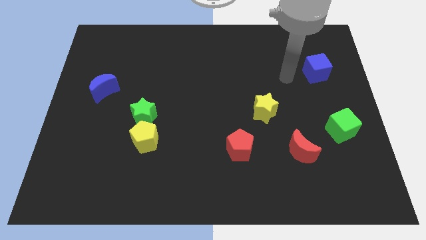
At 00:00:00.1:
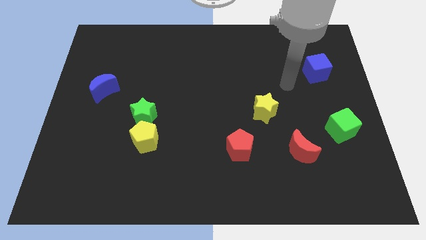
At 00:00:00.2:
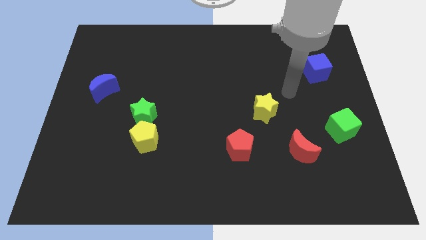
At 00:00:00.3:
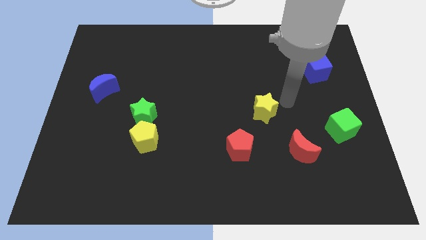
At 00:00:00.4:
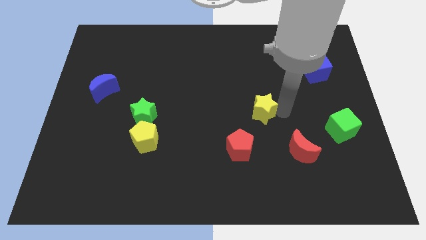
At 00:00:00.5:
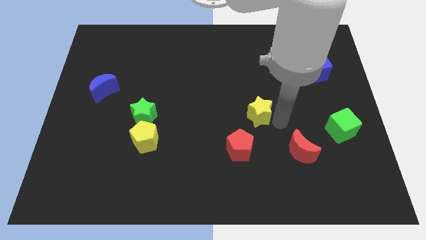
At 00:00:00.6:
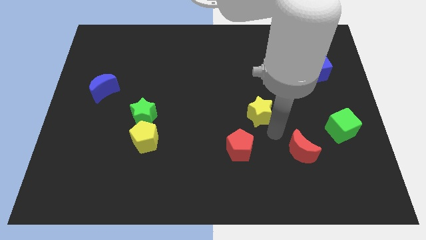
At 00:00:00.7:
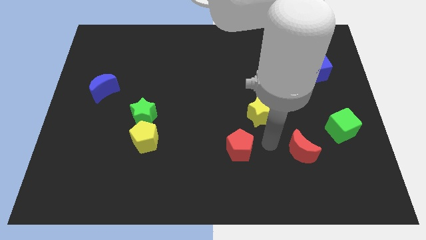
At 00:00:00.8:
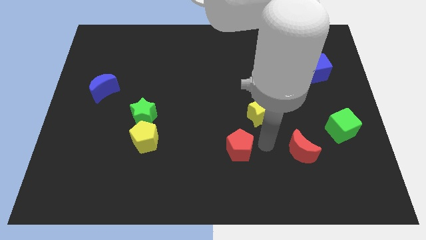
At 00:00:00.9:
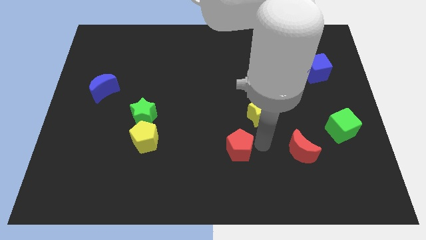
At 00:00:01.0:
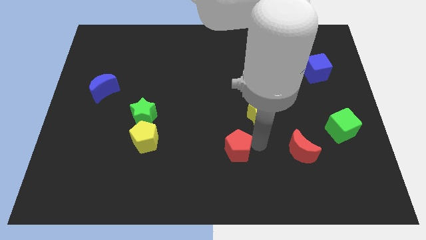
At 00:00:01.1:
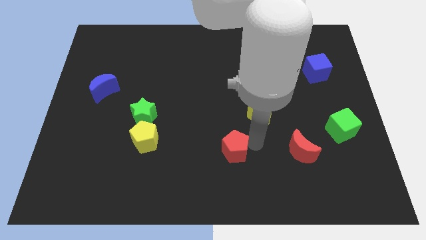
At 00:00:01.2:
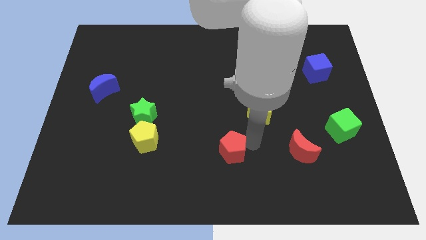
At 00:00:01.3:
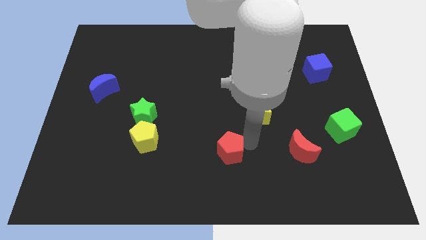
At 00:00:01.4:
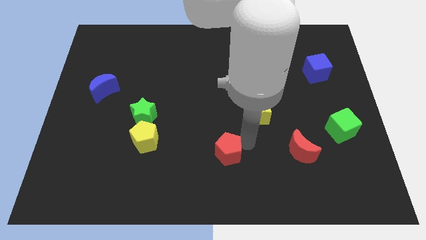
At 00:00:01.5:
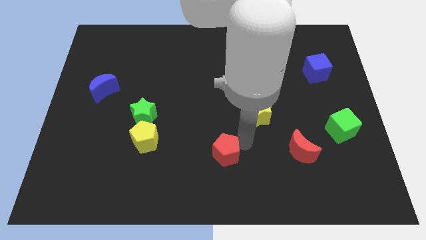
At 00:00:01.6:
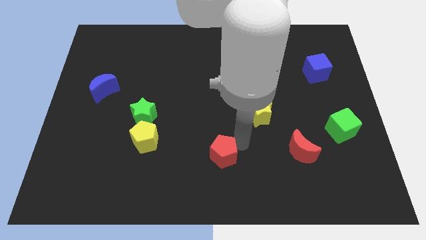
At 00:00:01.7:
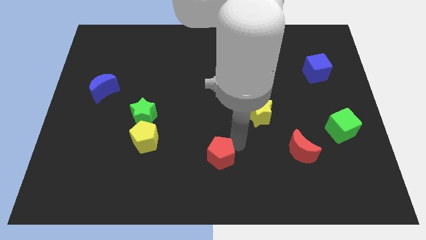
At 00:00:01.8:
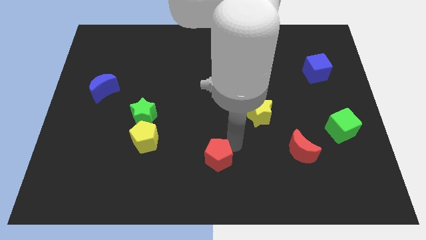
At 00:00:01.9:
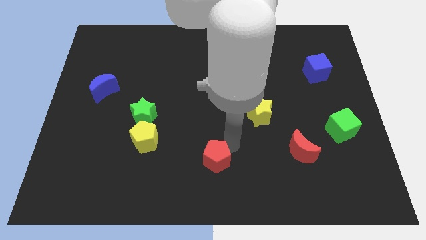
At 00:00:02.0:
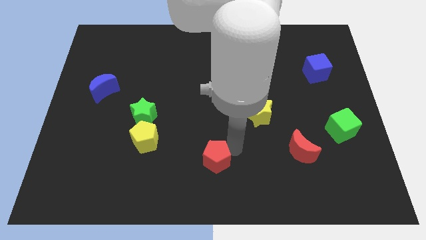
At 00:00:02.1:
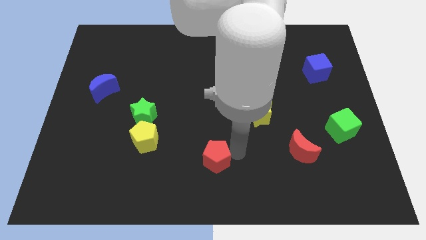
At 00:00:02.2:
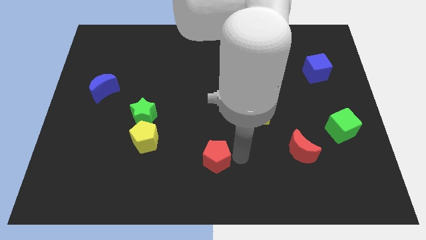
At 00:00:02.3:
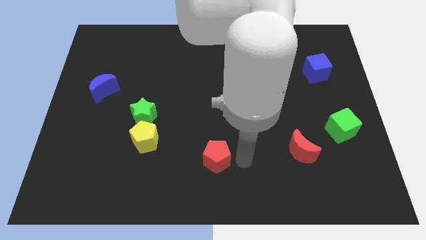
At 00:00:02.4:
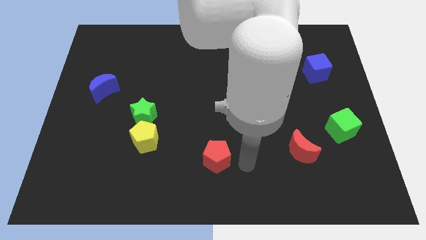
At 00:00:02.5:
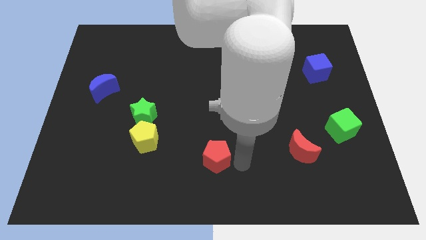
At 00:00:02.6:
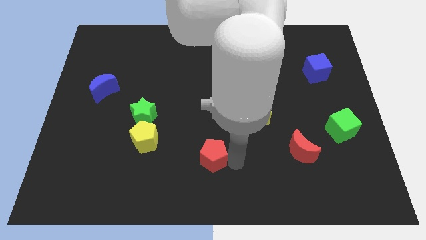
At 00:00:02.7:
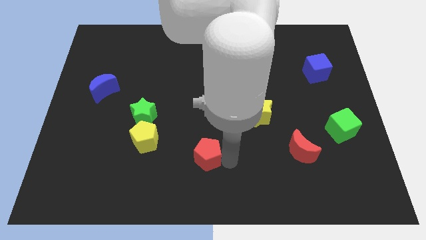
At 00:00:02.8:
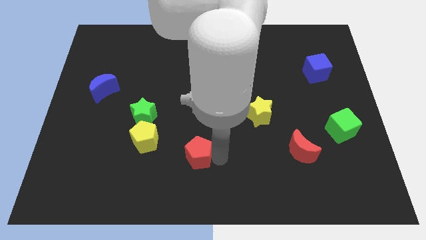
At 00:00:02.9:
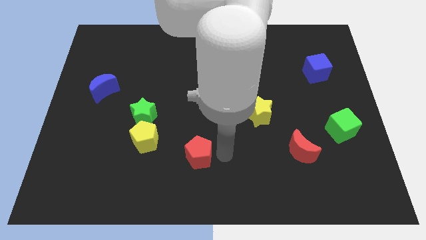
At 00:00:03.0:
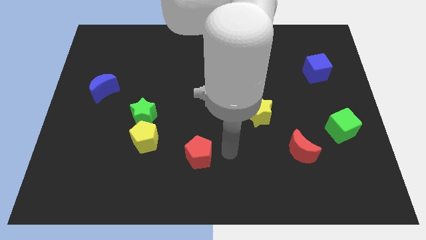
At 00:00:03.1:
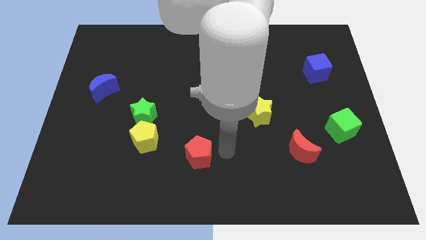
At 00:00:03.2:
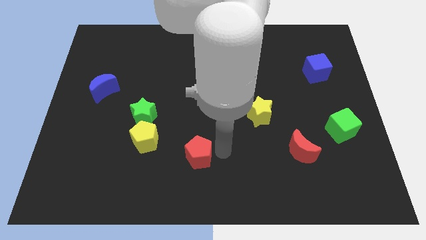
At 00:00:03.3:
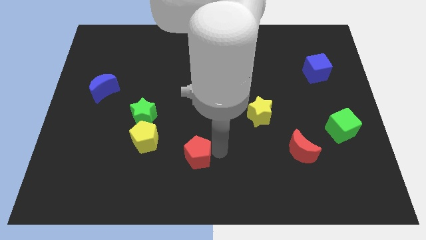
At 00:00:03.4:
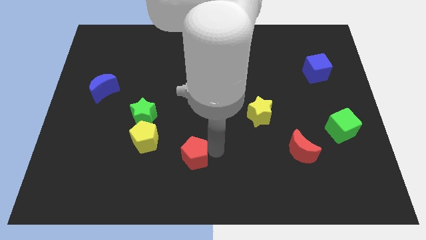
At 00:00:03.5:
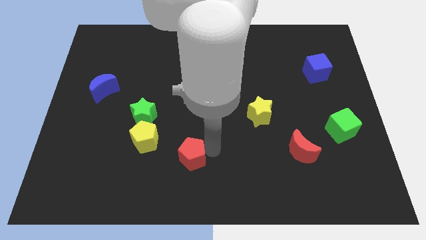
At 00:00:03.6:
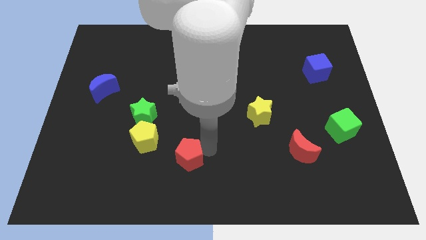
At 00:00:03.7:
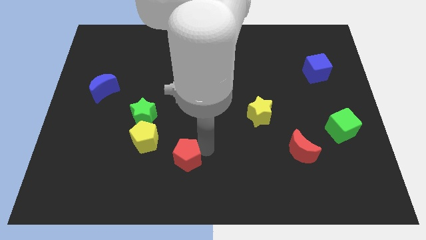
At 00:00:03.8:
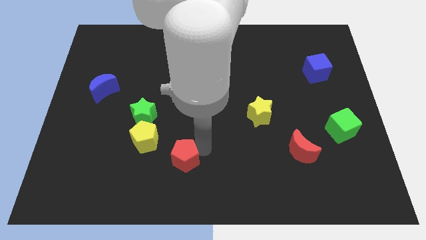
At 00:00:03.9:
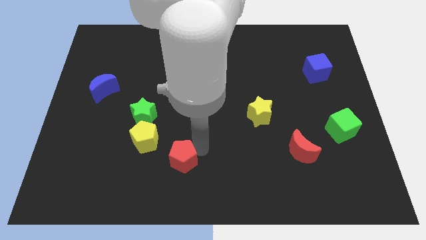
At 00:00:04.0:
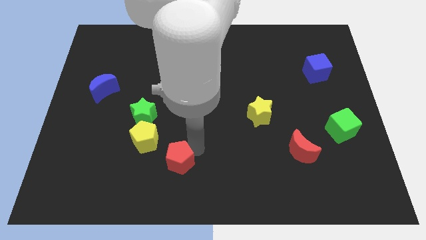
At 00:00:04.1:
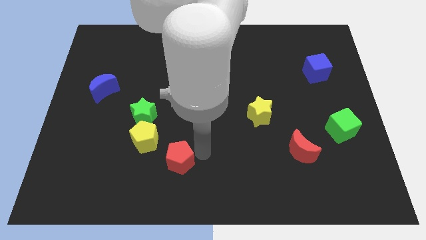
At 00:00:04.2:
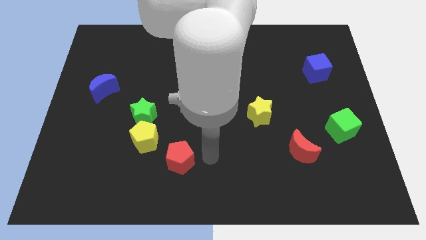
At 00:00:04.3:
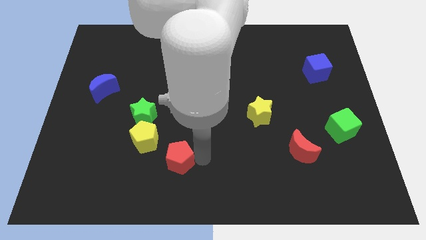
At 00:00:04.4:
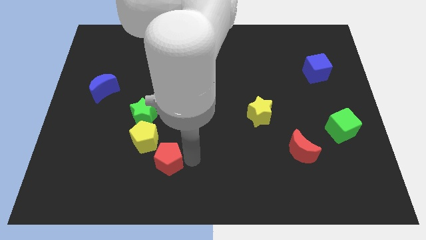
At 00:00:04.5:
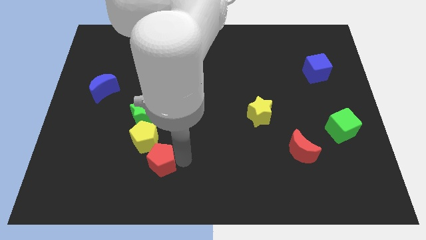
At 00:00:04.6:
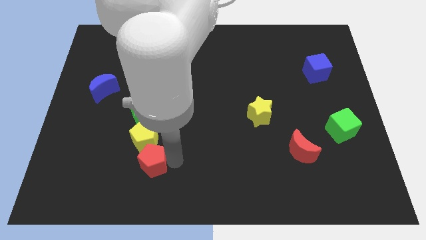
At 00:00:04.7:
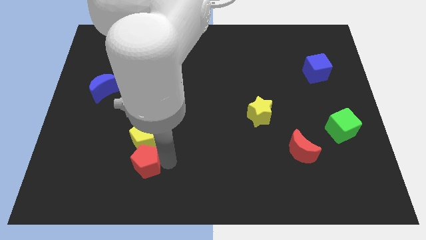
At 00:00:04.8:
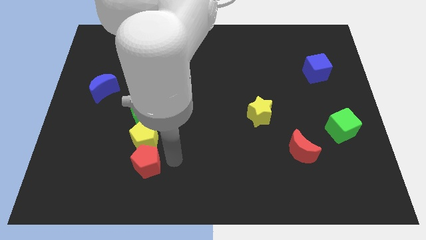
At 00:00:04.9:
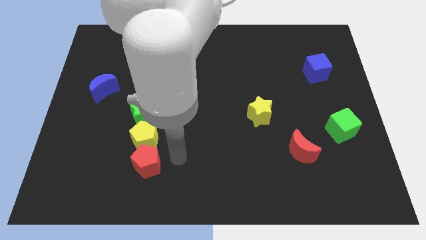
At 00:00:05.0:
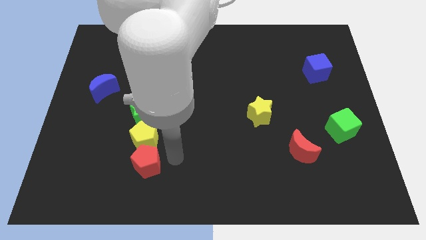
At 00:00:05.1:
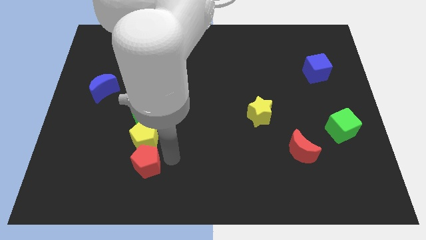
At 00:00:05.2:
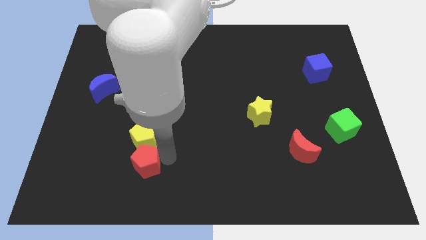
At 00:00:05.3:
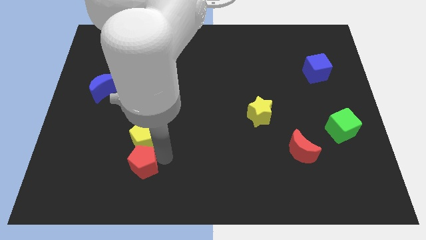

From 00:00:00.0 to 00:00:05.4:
push the red pentagon to the left

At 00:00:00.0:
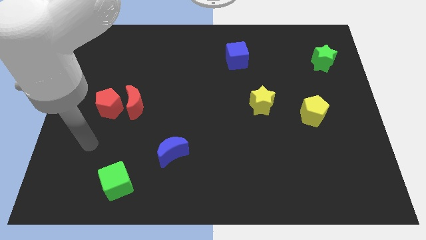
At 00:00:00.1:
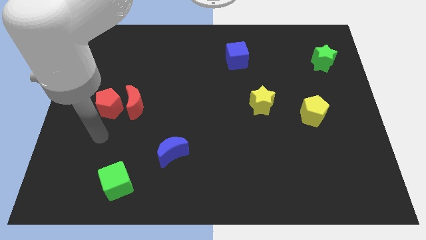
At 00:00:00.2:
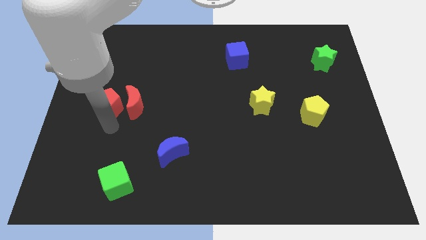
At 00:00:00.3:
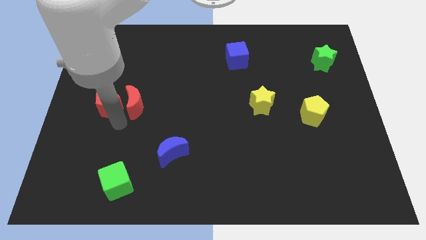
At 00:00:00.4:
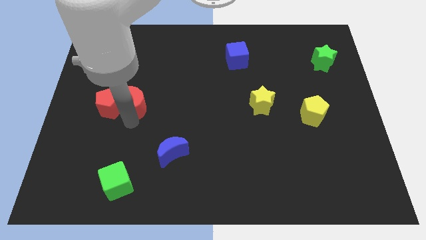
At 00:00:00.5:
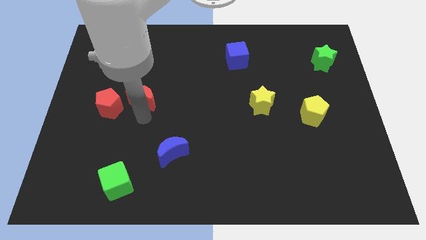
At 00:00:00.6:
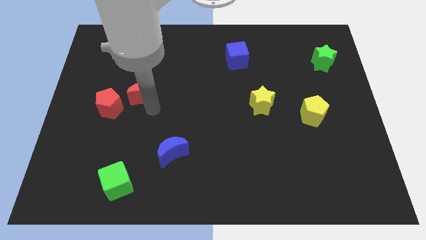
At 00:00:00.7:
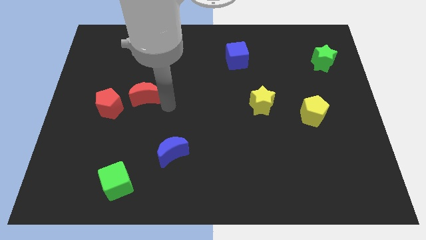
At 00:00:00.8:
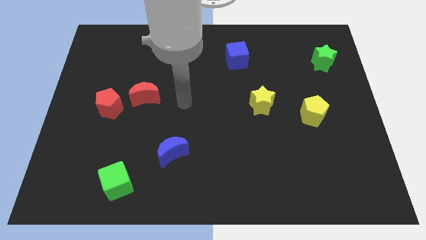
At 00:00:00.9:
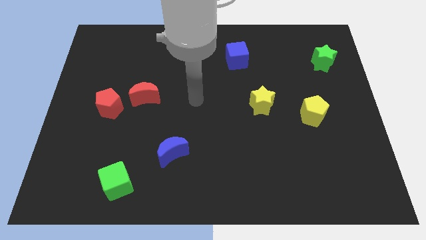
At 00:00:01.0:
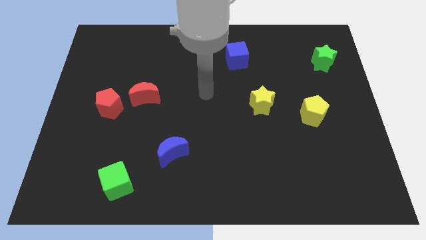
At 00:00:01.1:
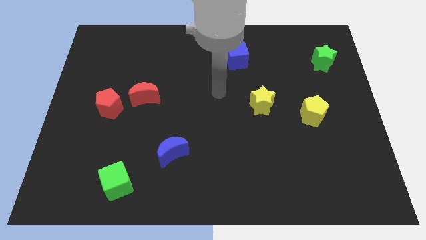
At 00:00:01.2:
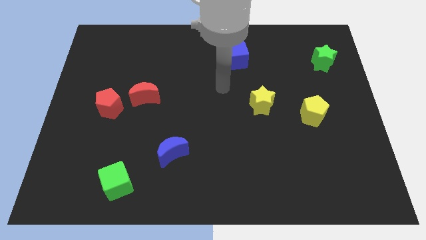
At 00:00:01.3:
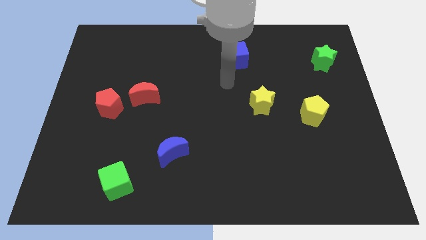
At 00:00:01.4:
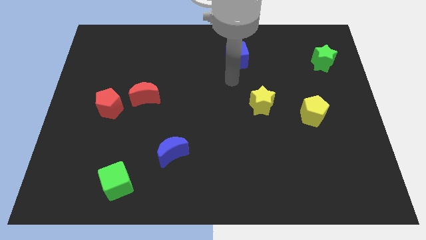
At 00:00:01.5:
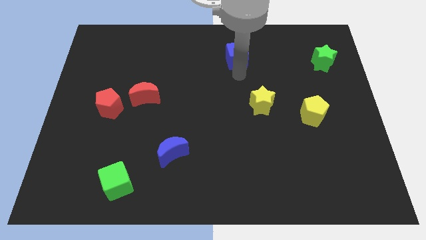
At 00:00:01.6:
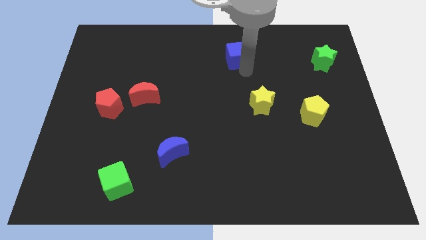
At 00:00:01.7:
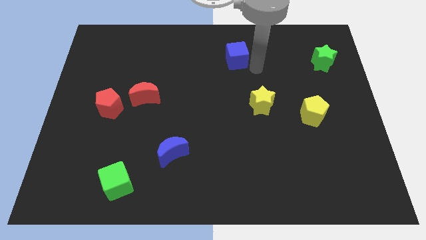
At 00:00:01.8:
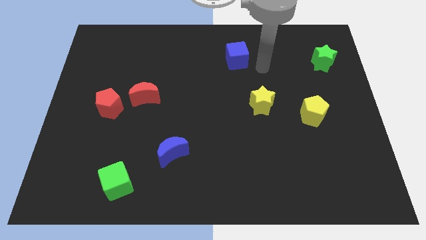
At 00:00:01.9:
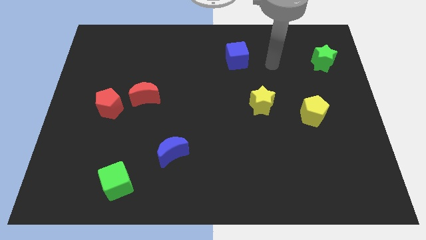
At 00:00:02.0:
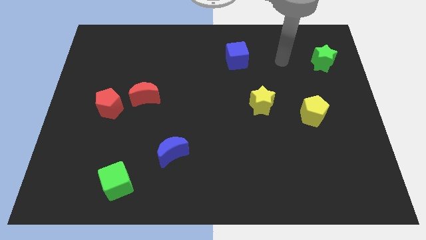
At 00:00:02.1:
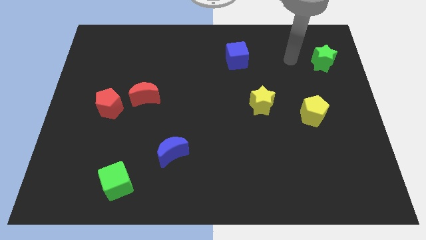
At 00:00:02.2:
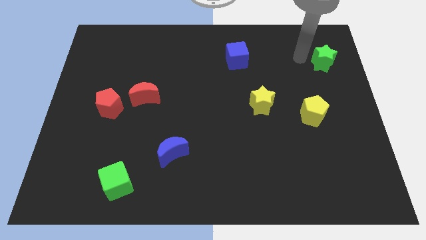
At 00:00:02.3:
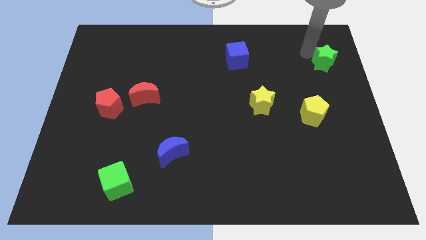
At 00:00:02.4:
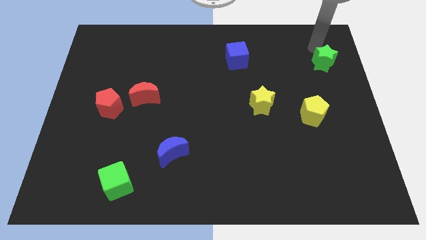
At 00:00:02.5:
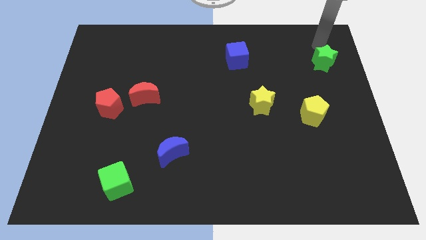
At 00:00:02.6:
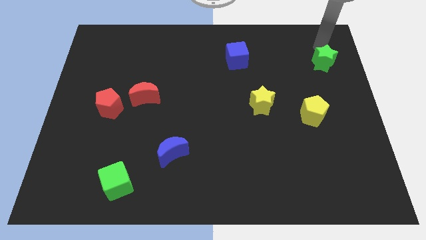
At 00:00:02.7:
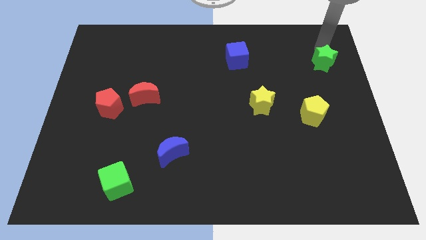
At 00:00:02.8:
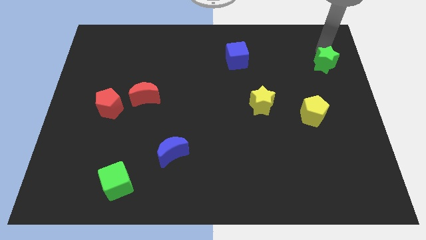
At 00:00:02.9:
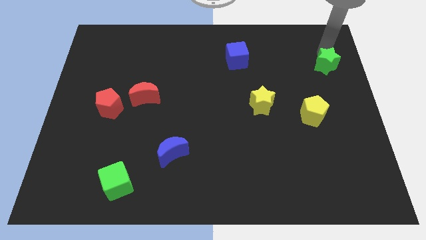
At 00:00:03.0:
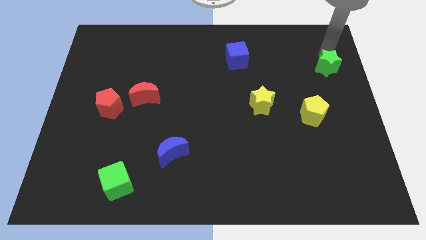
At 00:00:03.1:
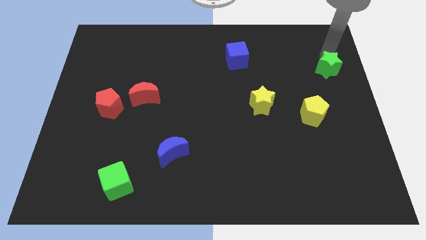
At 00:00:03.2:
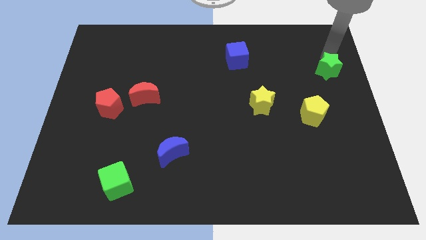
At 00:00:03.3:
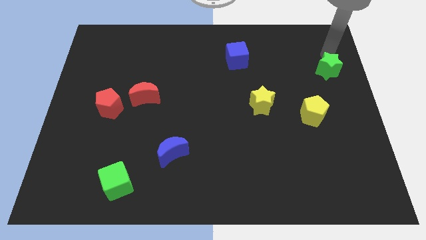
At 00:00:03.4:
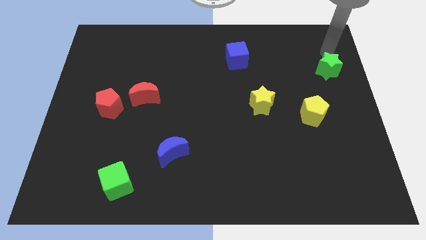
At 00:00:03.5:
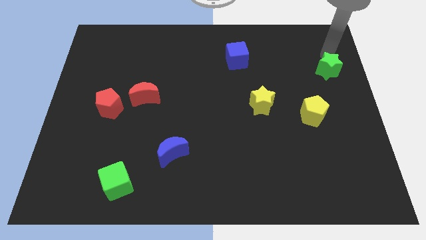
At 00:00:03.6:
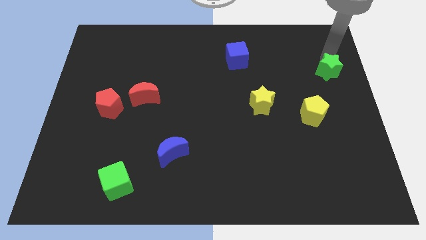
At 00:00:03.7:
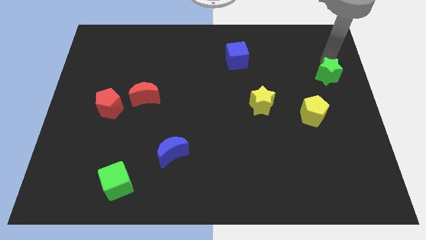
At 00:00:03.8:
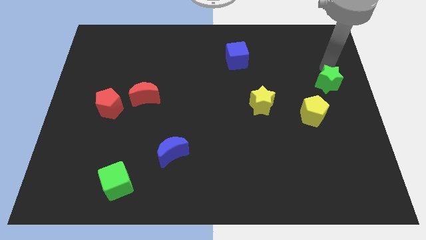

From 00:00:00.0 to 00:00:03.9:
slightly slide the green star downwards
